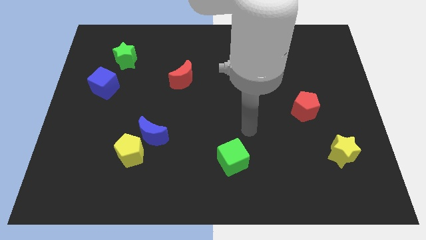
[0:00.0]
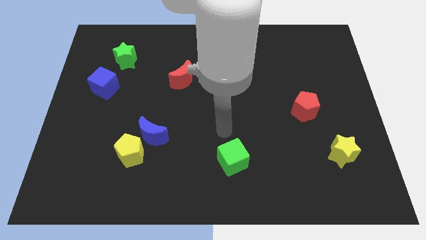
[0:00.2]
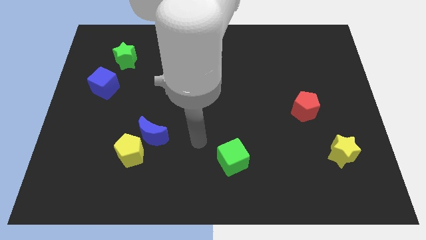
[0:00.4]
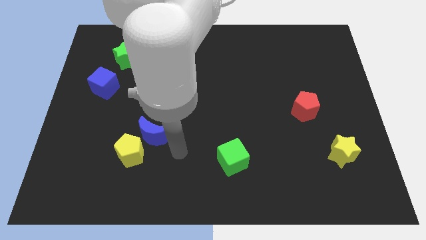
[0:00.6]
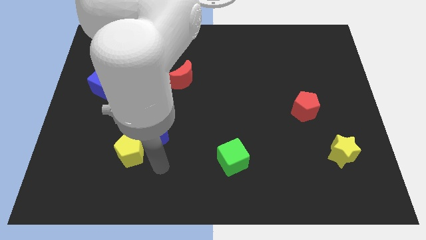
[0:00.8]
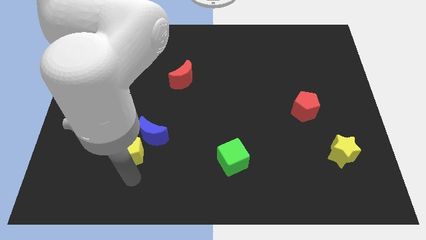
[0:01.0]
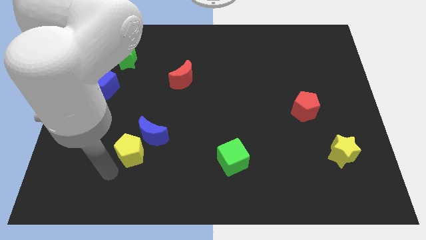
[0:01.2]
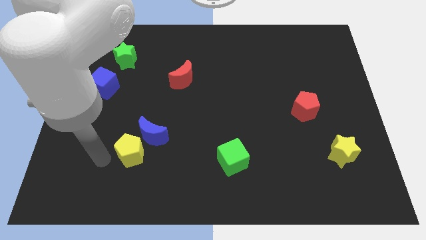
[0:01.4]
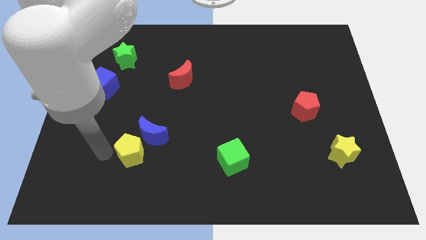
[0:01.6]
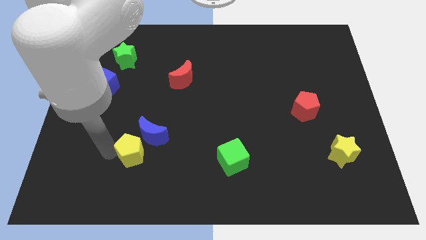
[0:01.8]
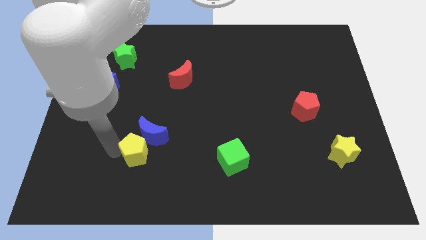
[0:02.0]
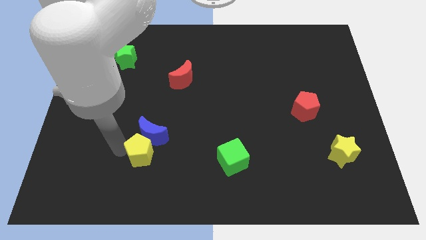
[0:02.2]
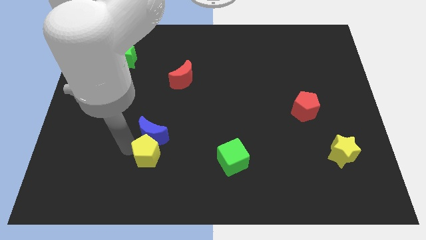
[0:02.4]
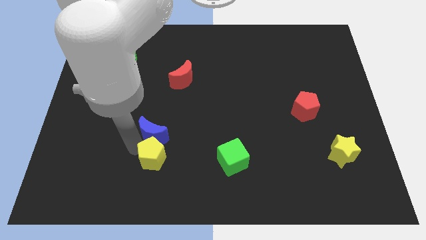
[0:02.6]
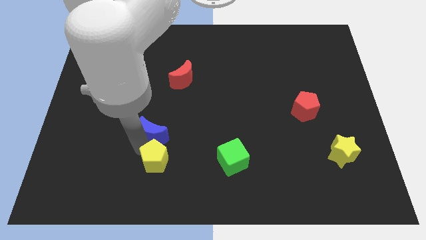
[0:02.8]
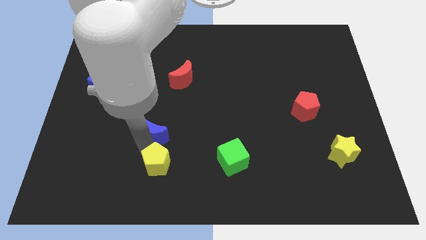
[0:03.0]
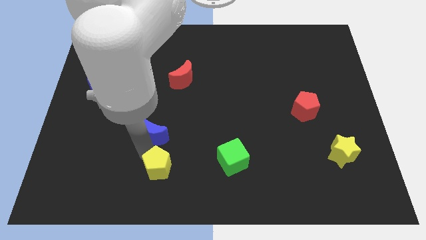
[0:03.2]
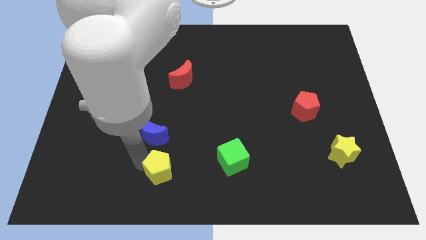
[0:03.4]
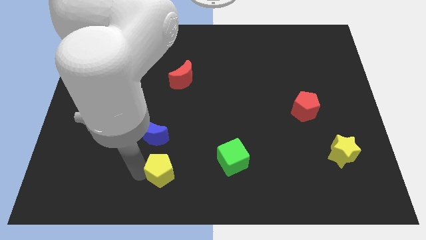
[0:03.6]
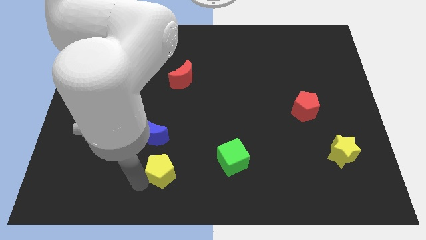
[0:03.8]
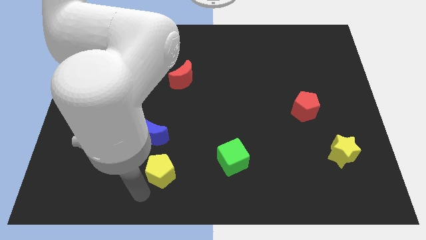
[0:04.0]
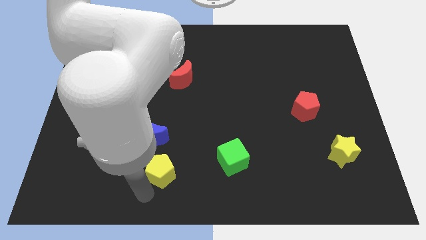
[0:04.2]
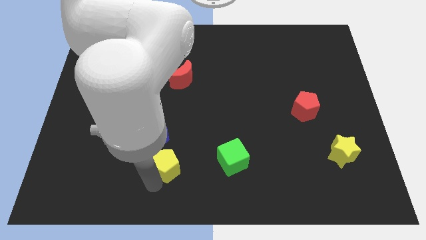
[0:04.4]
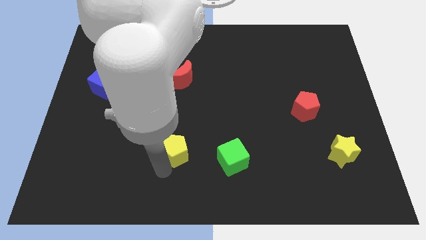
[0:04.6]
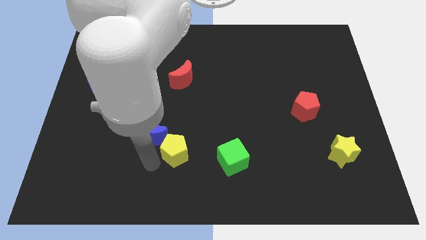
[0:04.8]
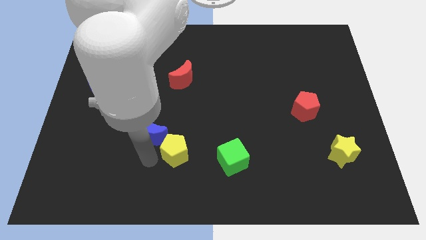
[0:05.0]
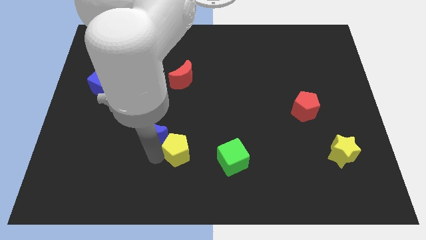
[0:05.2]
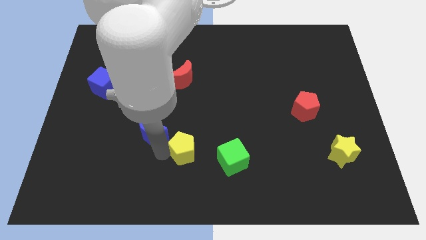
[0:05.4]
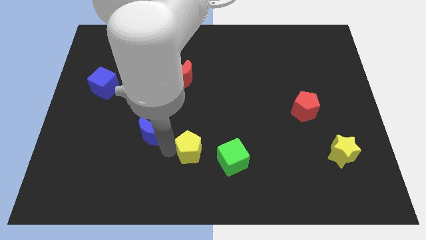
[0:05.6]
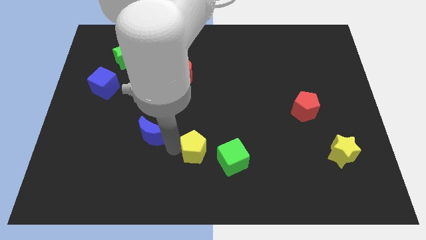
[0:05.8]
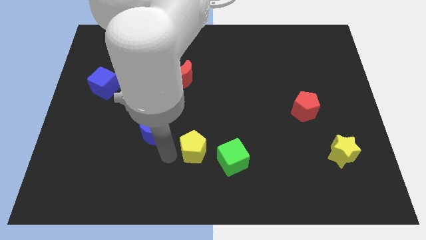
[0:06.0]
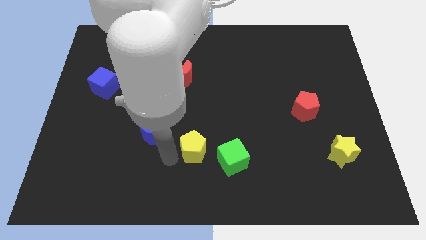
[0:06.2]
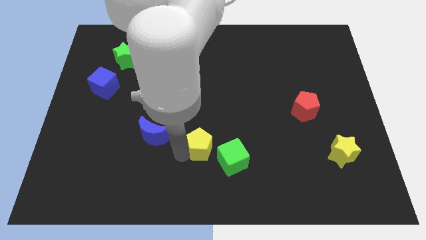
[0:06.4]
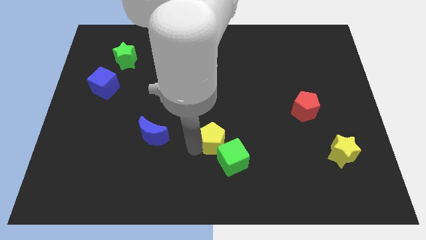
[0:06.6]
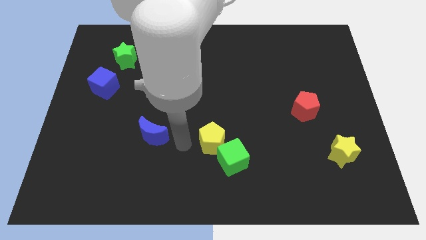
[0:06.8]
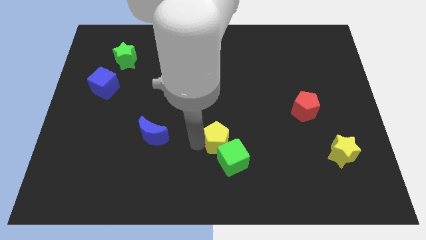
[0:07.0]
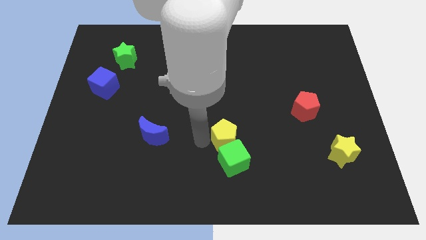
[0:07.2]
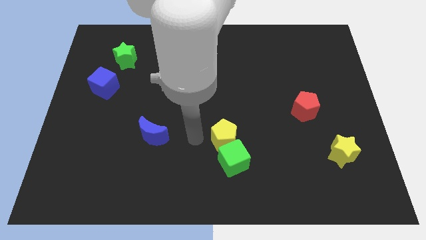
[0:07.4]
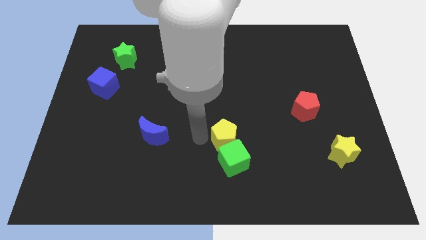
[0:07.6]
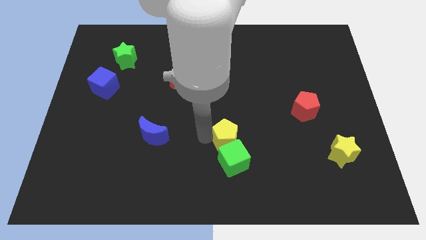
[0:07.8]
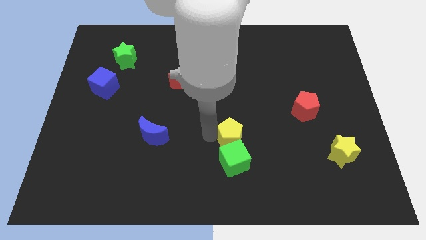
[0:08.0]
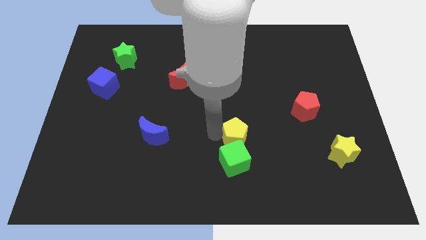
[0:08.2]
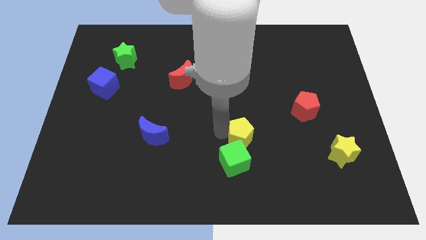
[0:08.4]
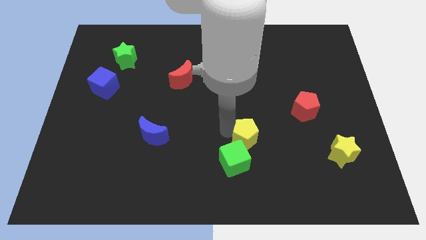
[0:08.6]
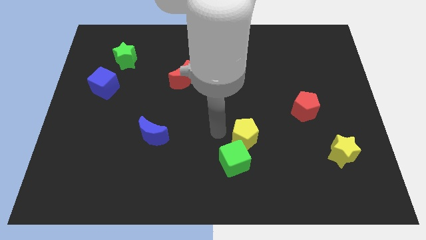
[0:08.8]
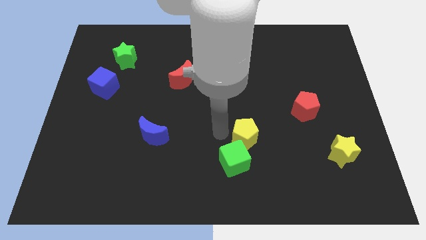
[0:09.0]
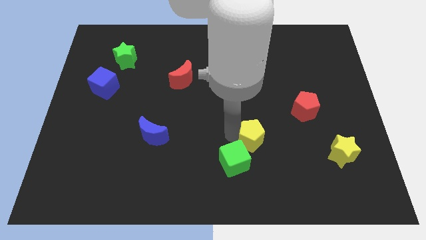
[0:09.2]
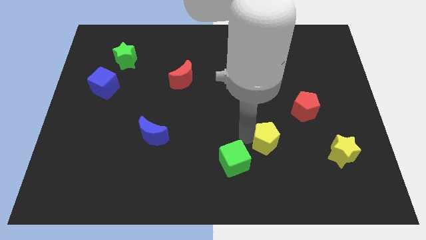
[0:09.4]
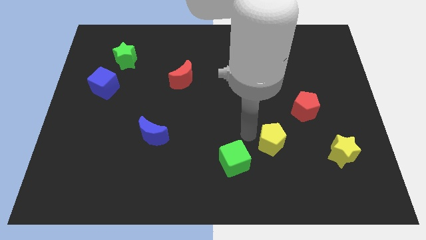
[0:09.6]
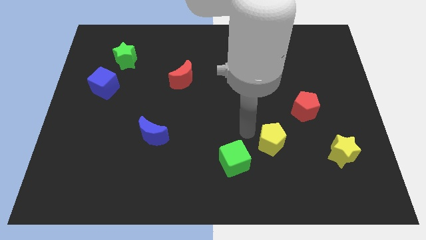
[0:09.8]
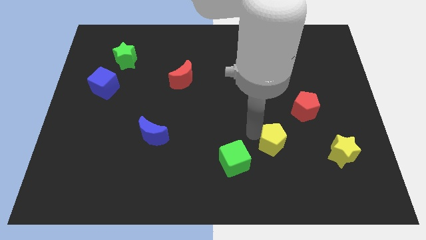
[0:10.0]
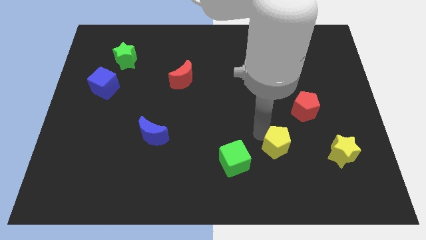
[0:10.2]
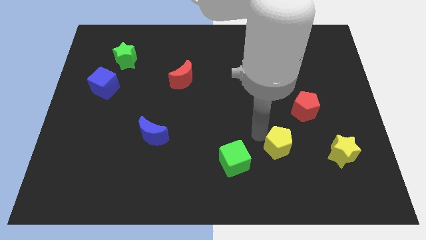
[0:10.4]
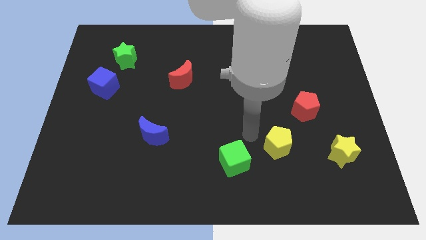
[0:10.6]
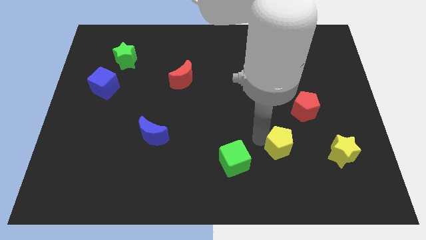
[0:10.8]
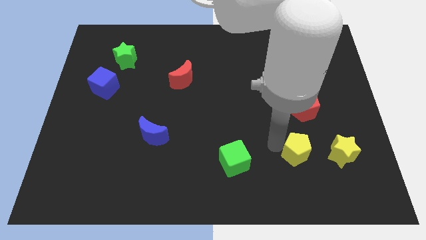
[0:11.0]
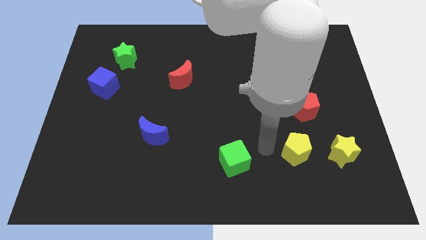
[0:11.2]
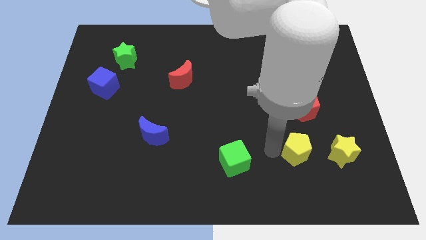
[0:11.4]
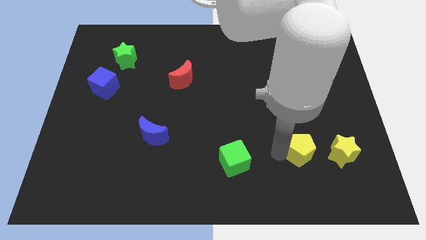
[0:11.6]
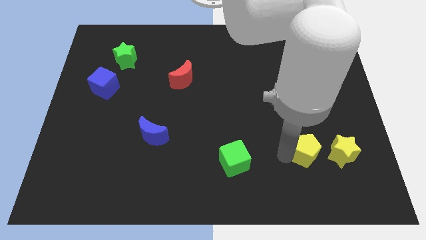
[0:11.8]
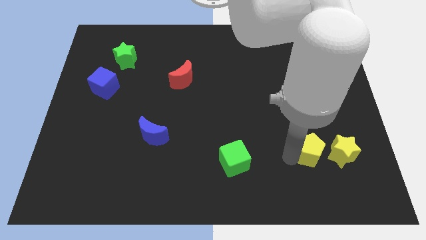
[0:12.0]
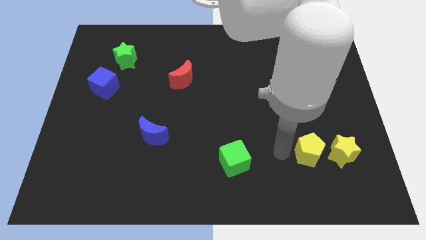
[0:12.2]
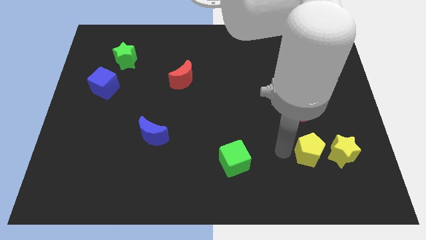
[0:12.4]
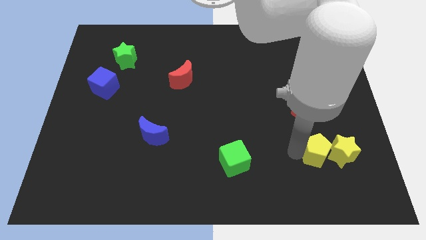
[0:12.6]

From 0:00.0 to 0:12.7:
slide the yellow pentagon next to the yellow star
